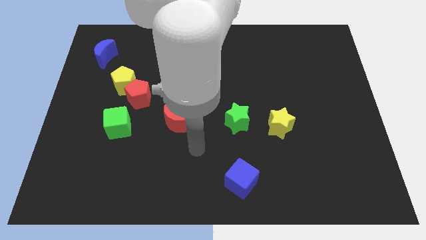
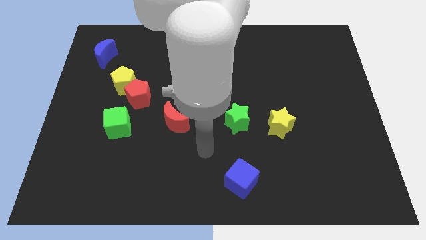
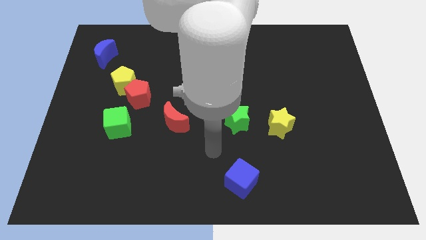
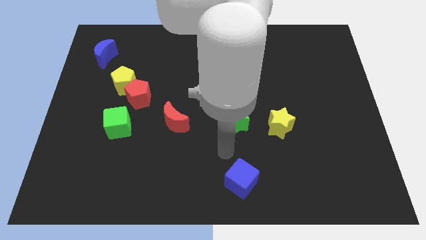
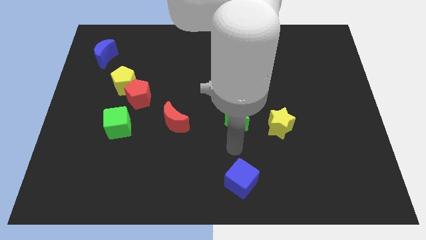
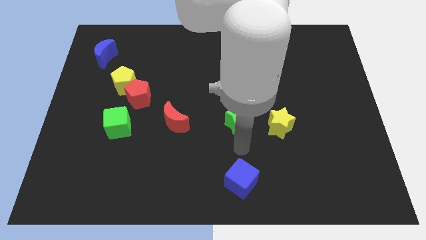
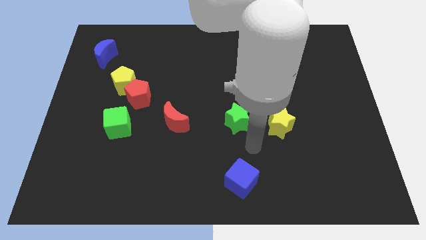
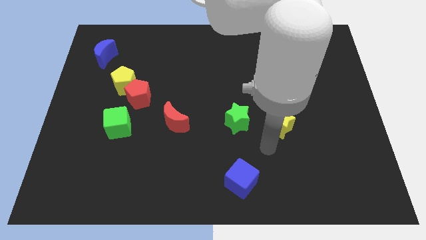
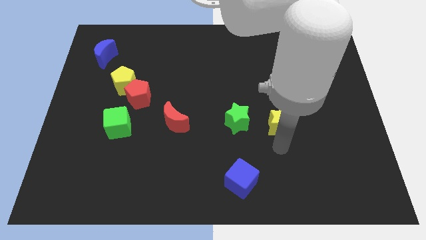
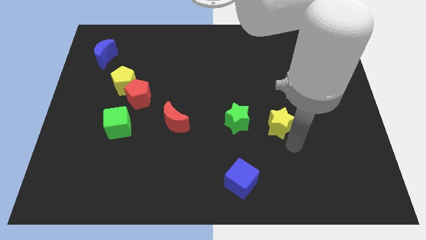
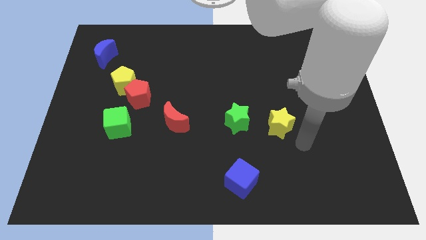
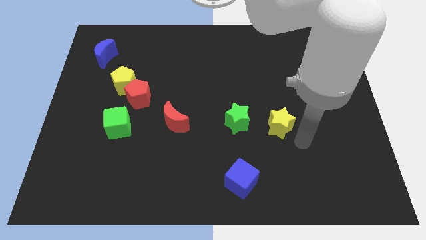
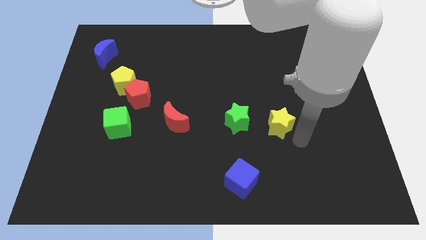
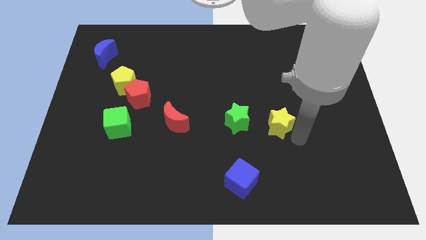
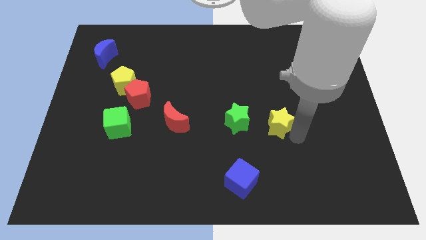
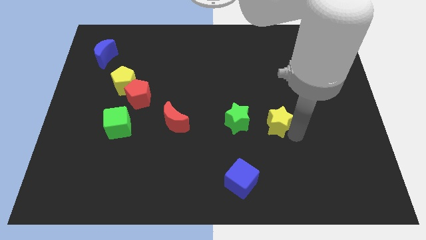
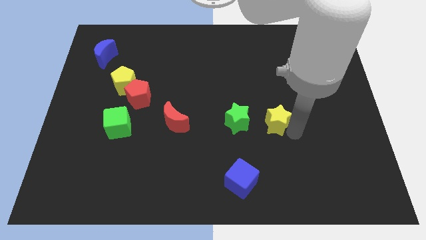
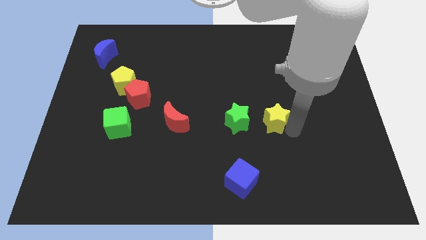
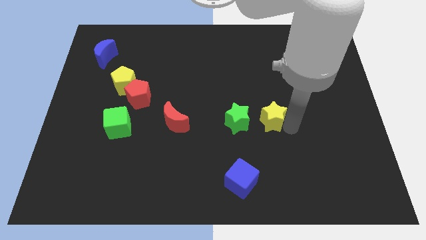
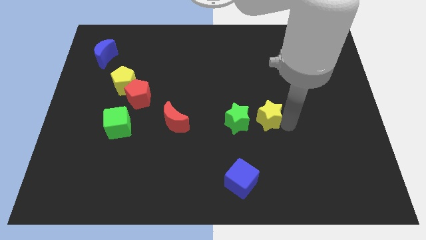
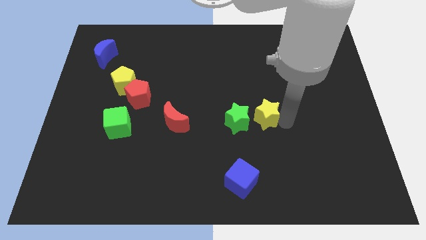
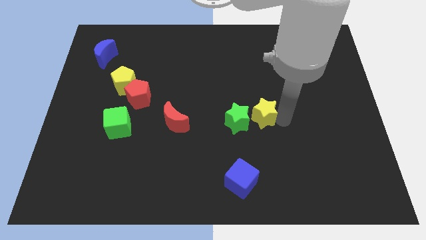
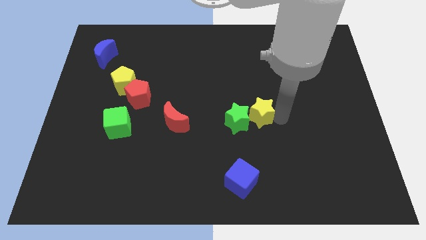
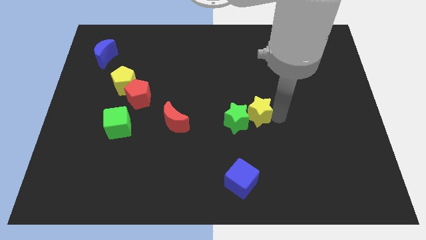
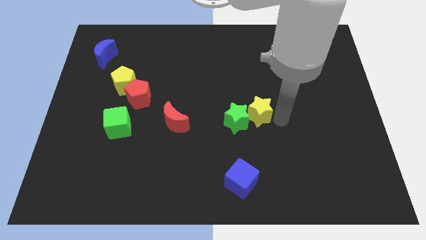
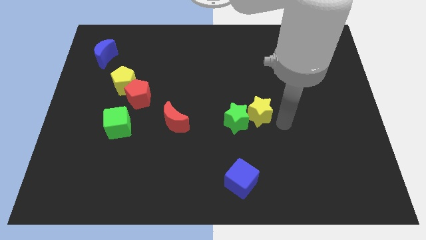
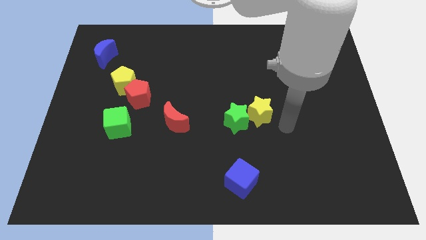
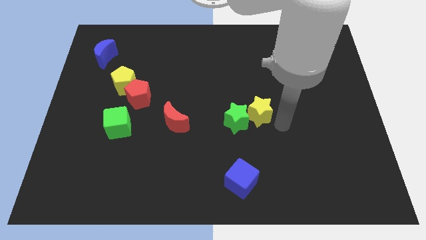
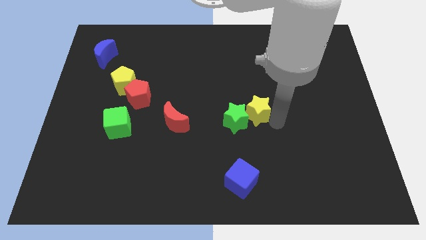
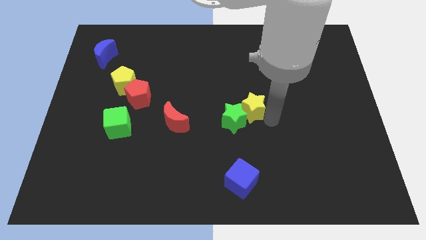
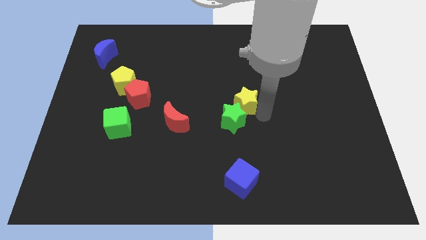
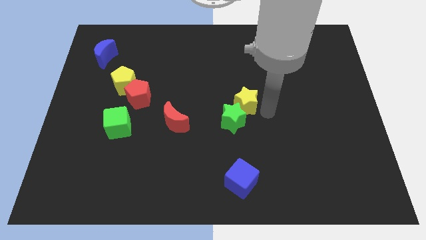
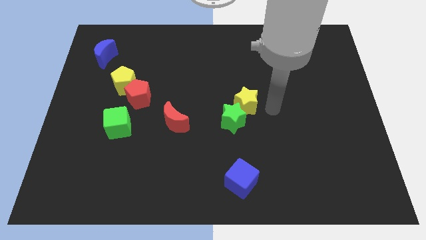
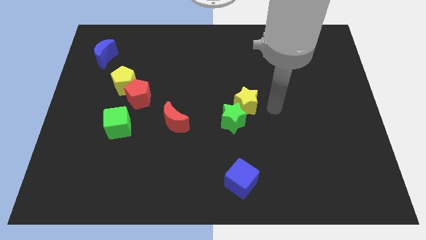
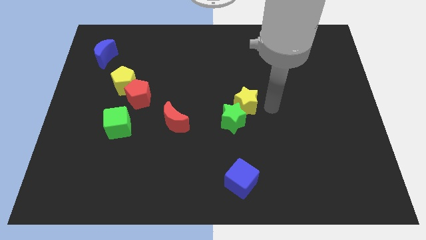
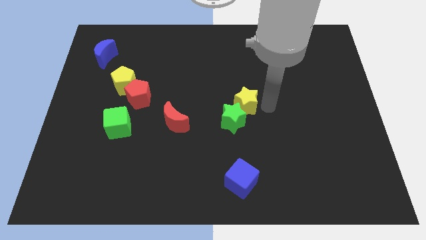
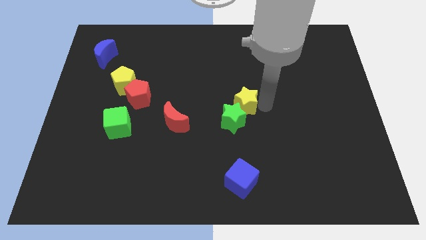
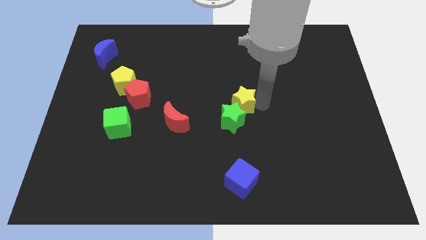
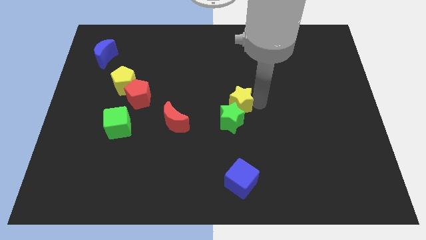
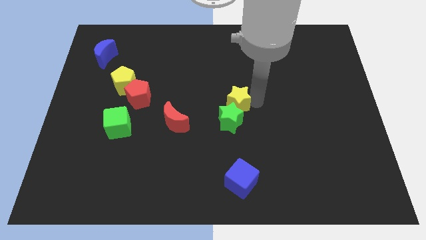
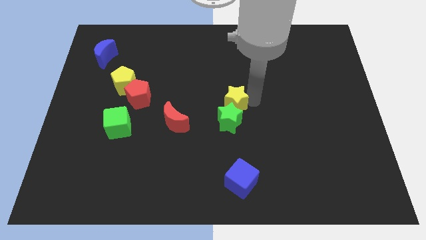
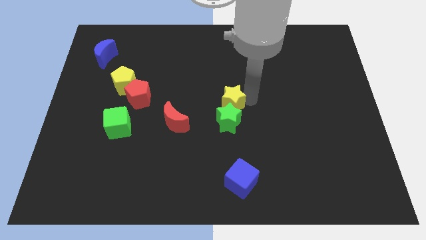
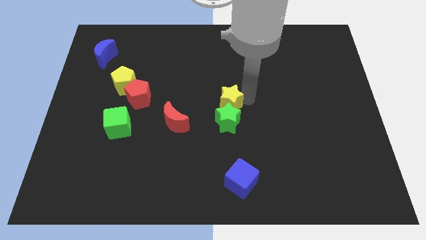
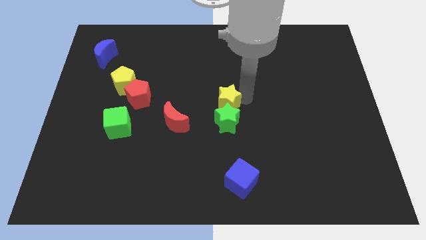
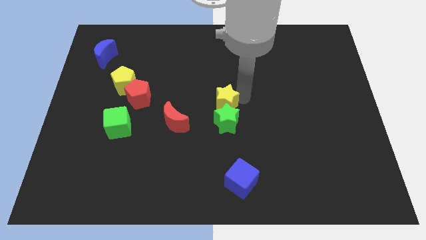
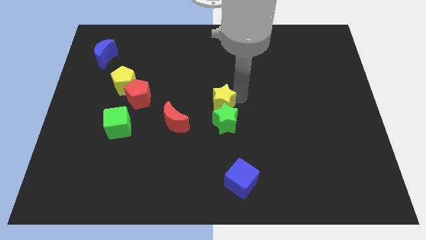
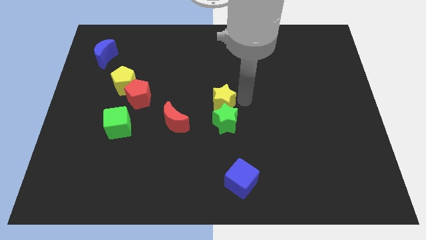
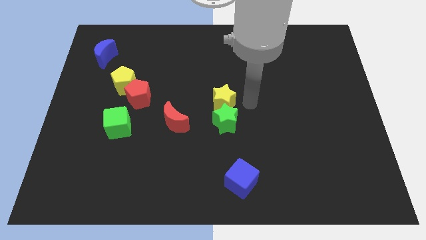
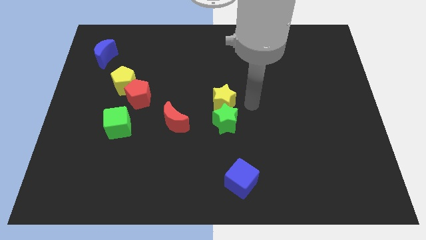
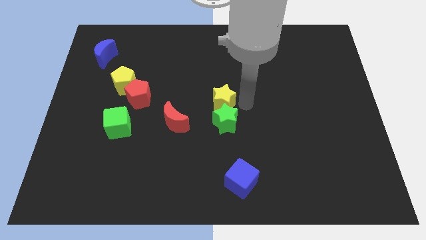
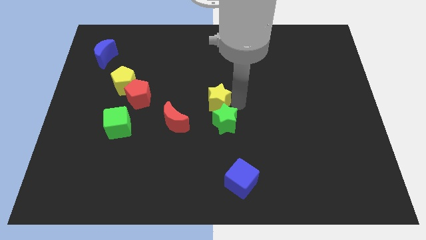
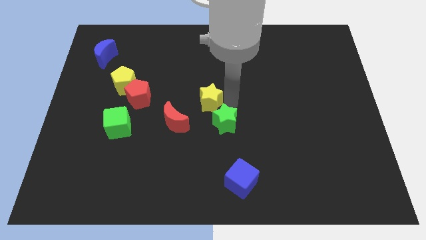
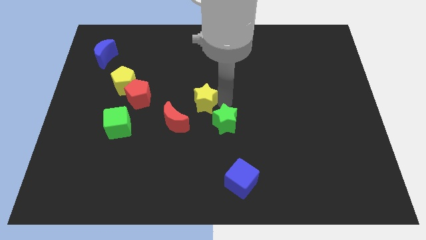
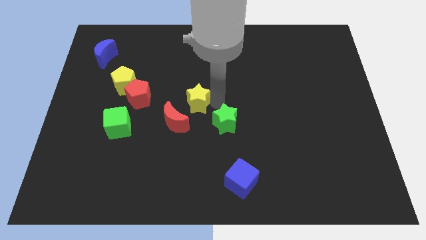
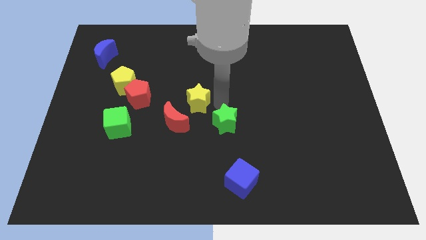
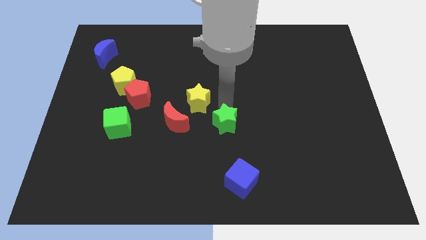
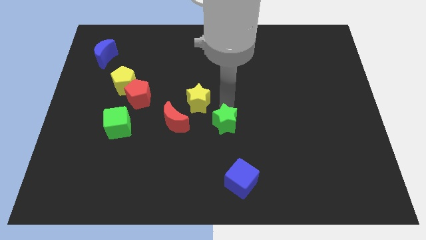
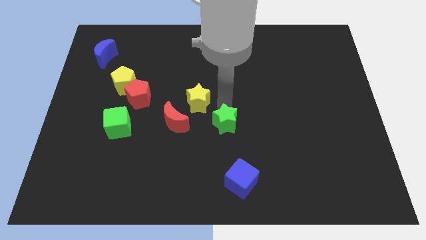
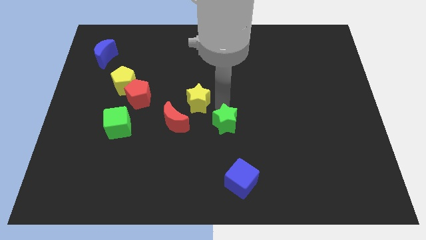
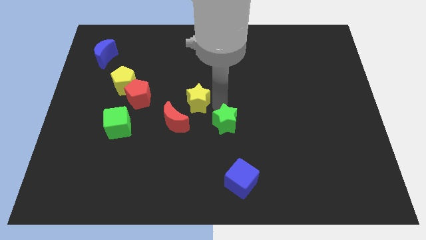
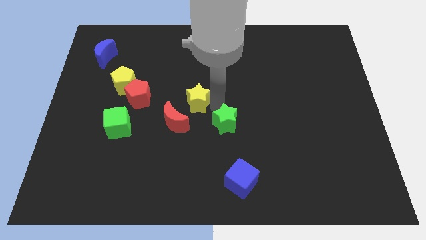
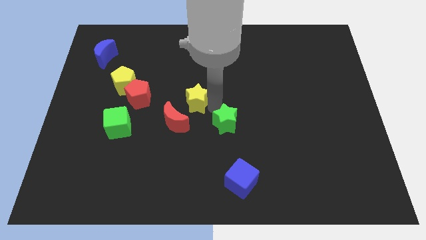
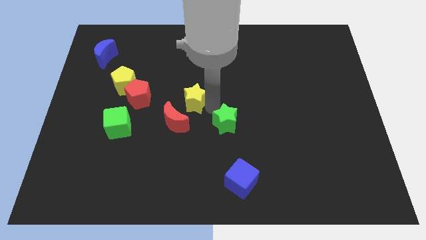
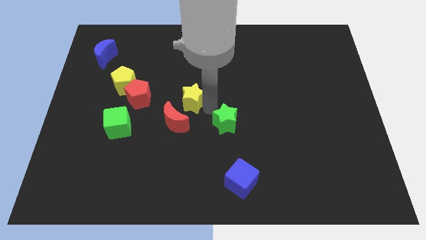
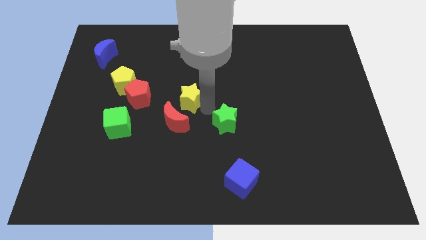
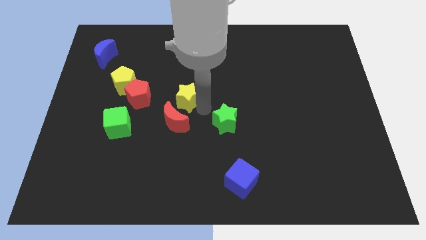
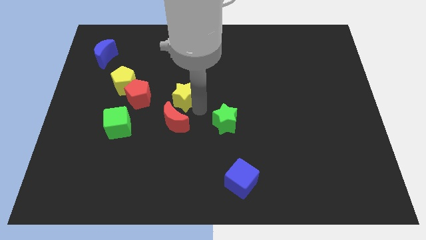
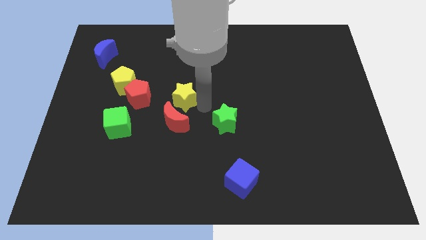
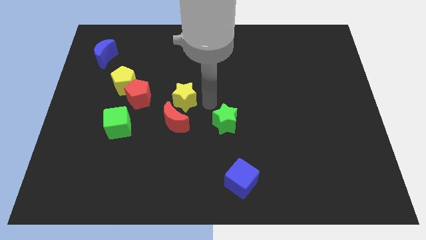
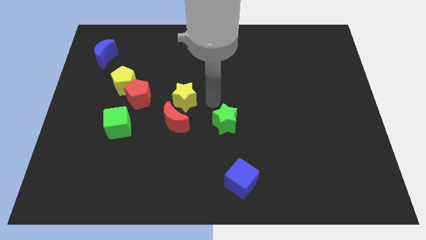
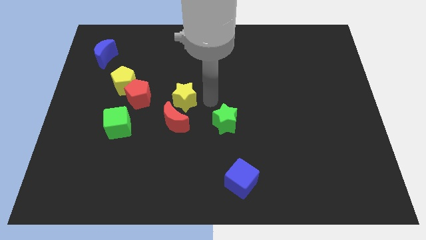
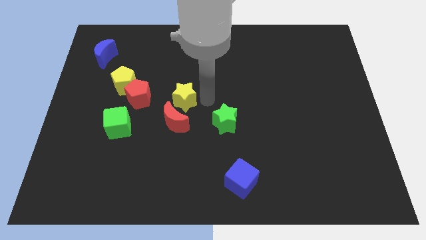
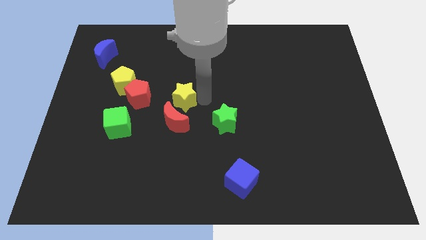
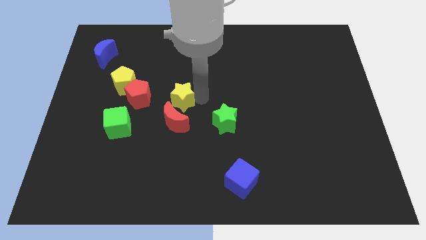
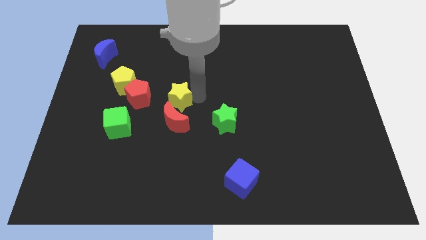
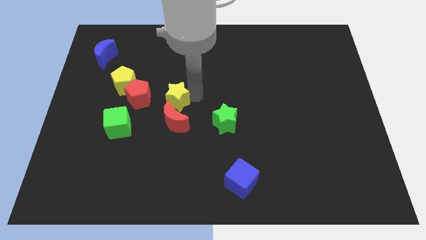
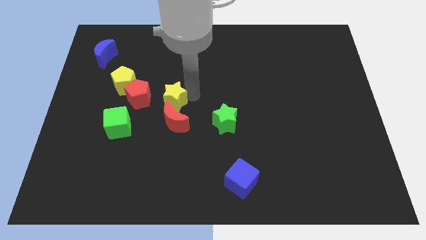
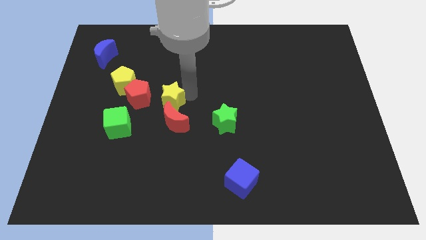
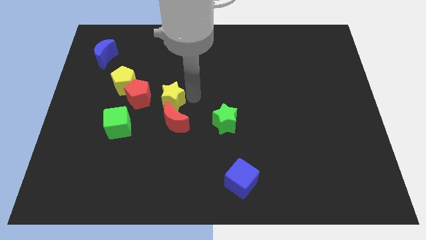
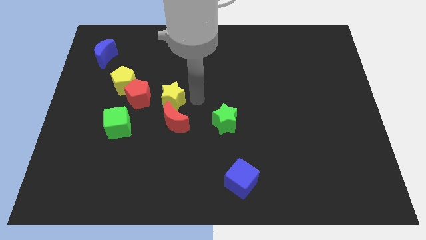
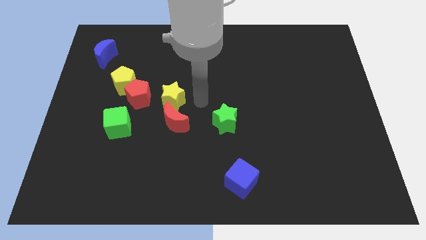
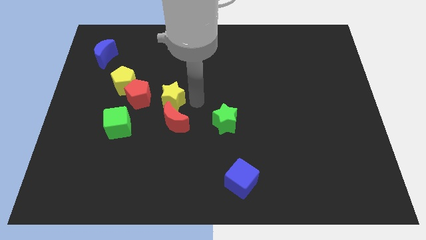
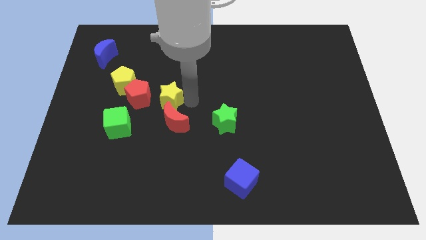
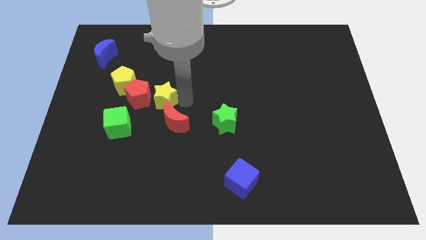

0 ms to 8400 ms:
push the yellow star to the top right of the green cube
